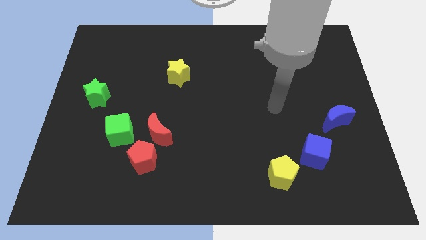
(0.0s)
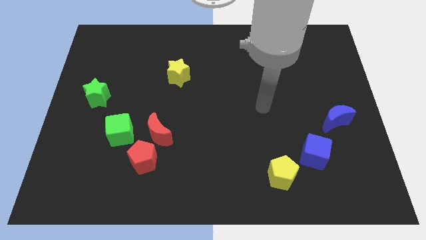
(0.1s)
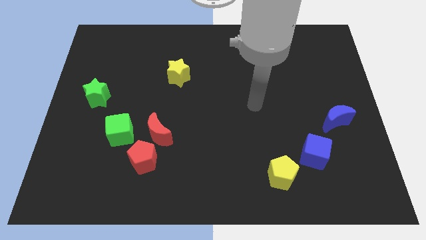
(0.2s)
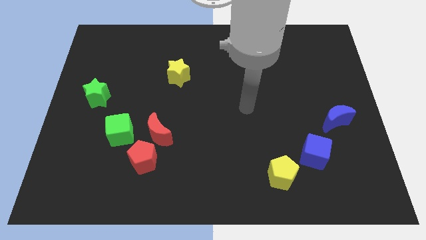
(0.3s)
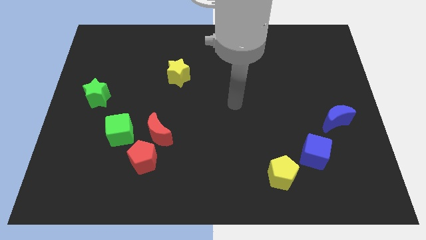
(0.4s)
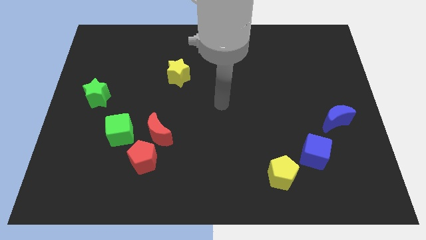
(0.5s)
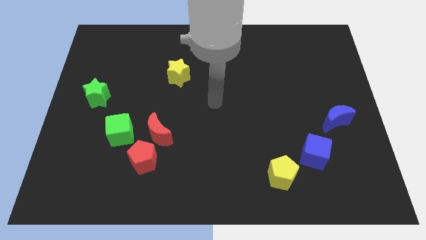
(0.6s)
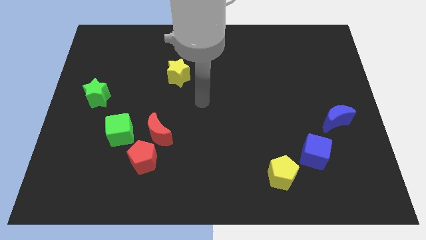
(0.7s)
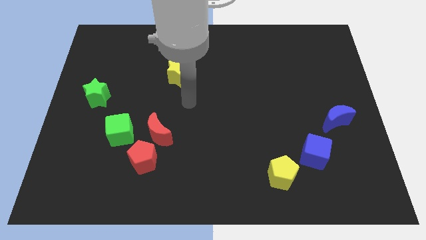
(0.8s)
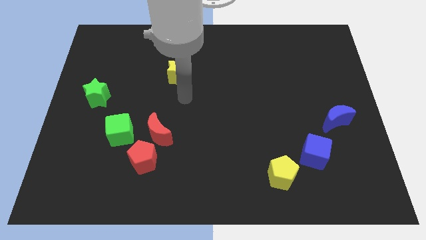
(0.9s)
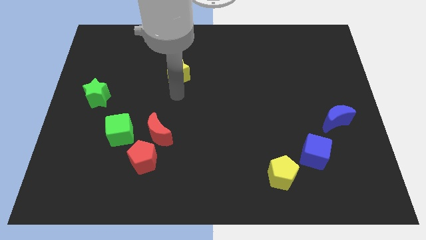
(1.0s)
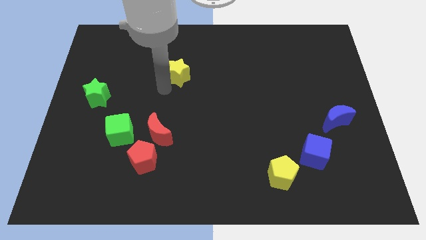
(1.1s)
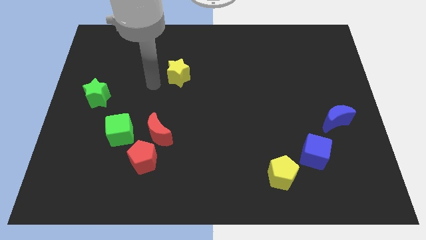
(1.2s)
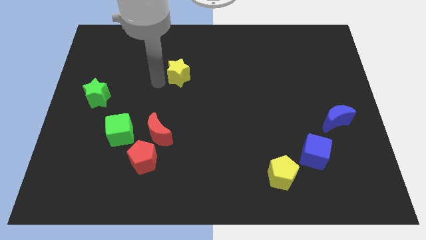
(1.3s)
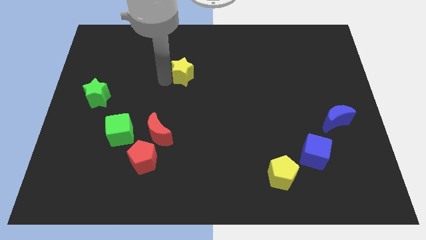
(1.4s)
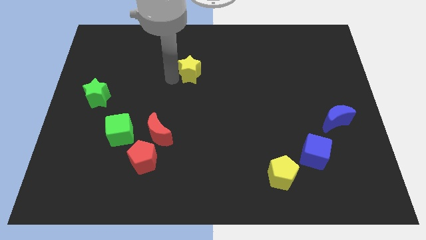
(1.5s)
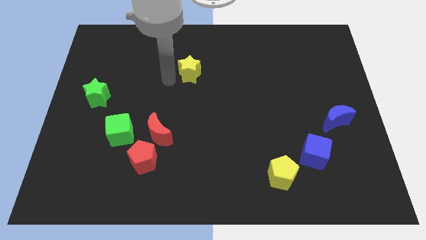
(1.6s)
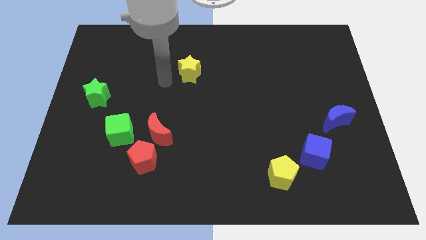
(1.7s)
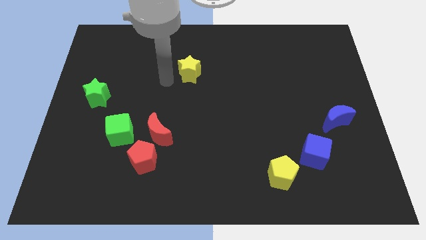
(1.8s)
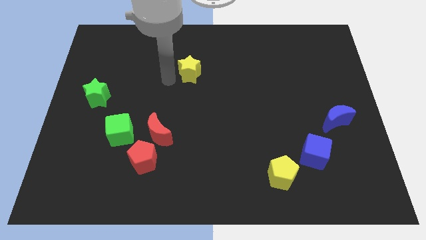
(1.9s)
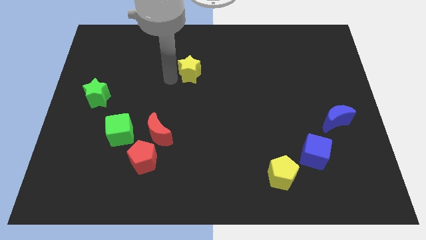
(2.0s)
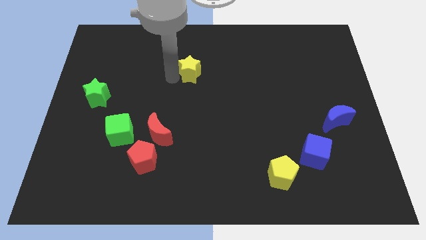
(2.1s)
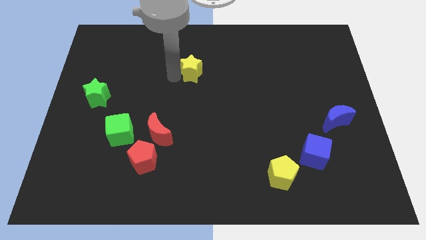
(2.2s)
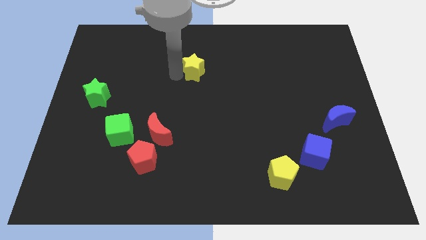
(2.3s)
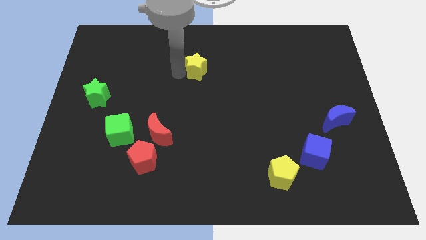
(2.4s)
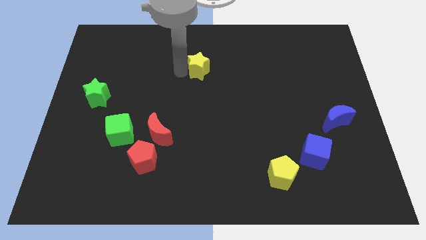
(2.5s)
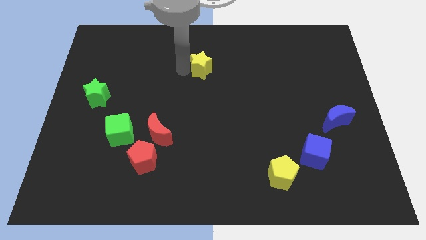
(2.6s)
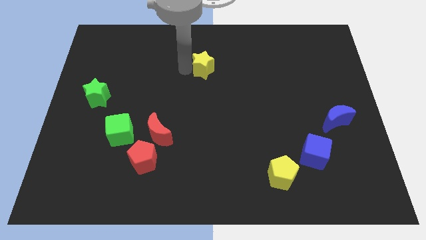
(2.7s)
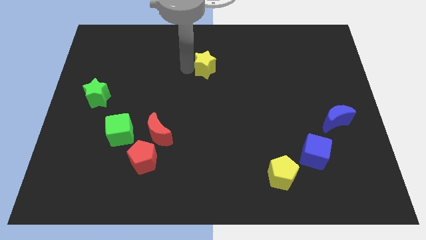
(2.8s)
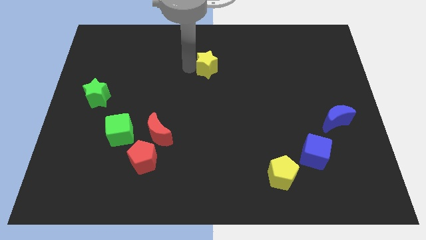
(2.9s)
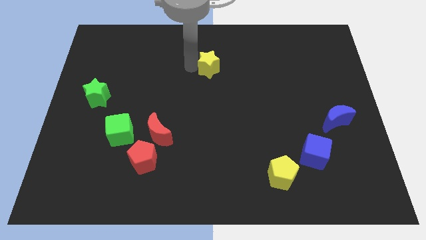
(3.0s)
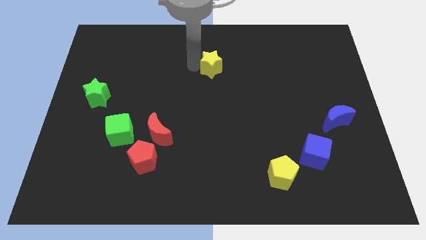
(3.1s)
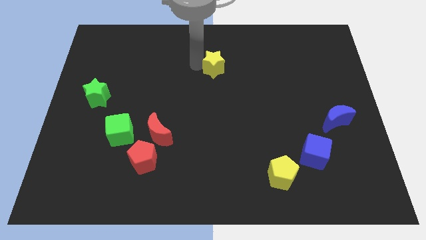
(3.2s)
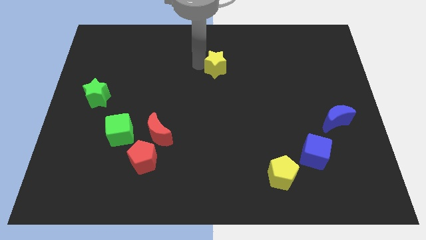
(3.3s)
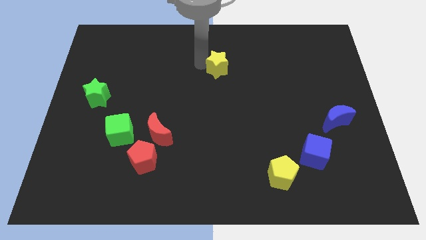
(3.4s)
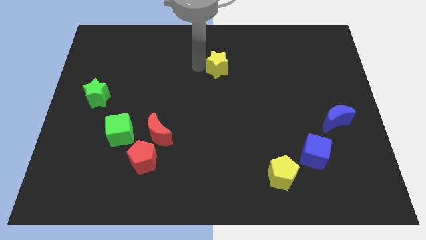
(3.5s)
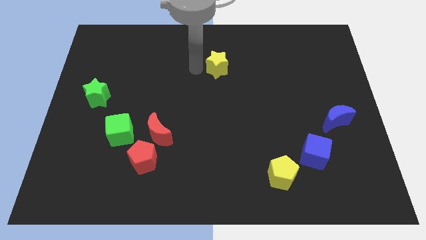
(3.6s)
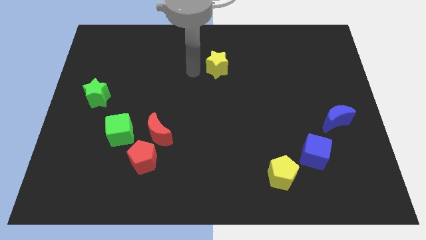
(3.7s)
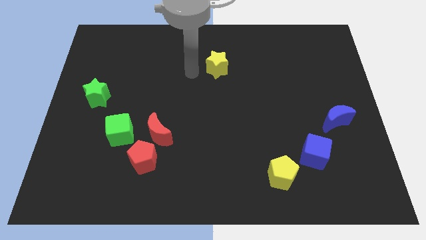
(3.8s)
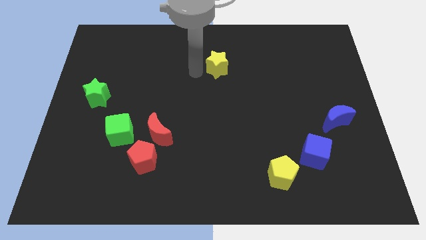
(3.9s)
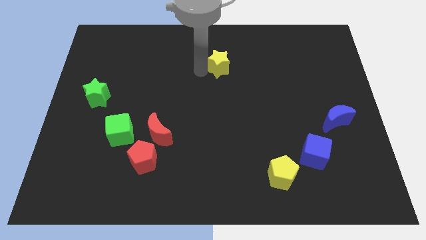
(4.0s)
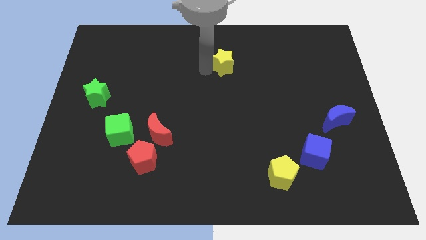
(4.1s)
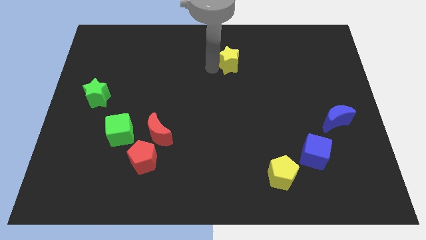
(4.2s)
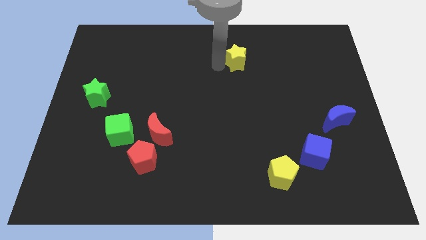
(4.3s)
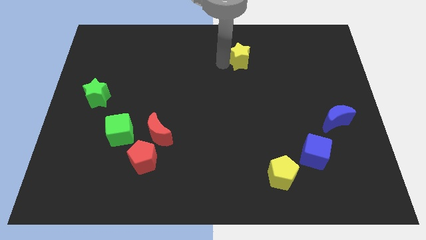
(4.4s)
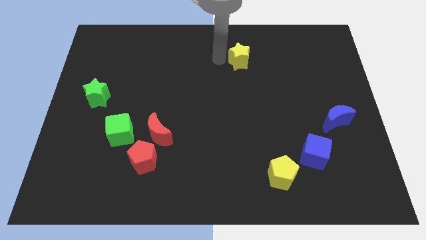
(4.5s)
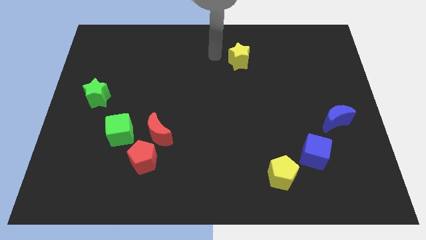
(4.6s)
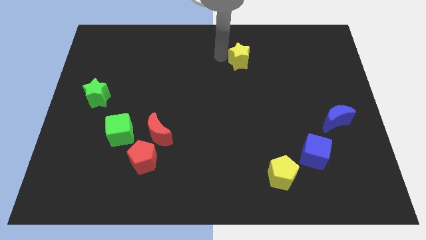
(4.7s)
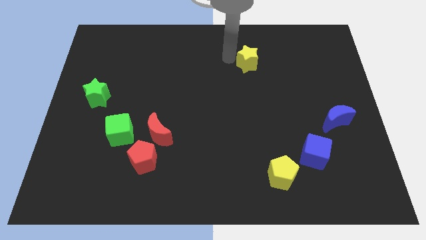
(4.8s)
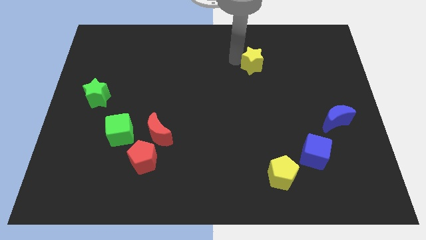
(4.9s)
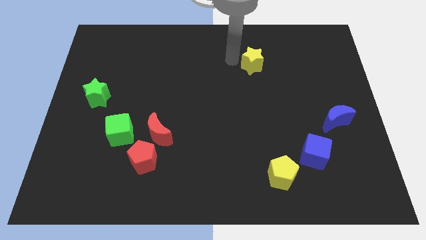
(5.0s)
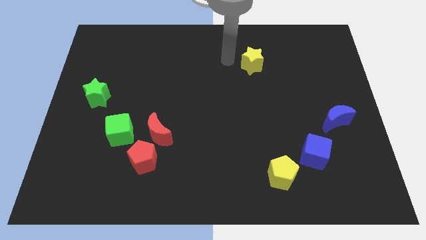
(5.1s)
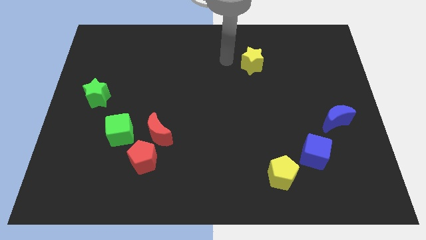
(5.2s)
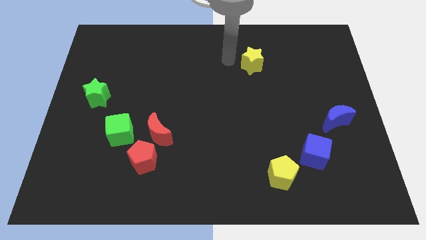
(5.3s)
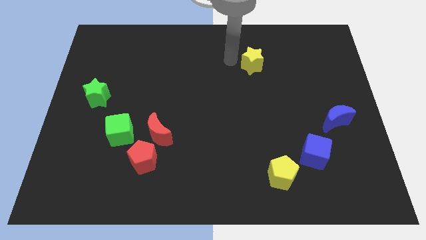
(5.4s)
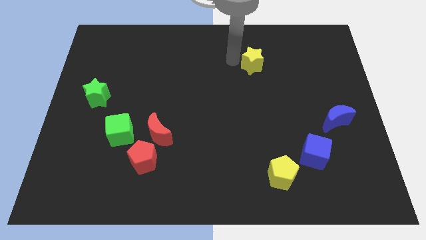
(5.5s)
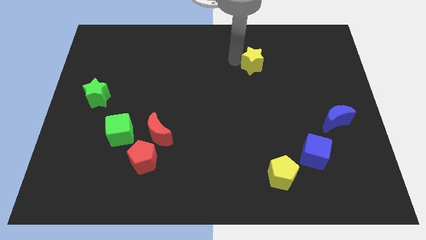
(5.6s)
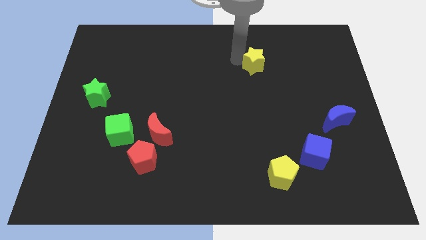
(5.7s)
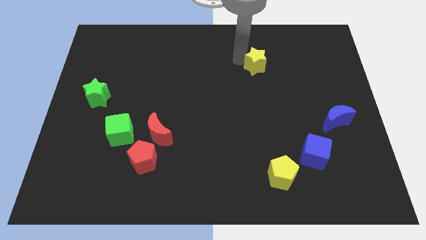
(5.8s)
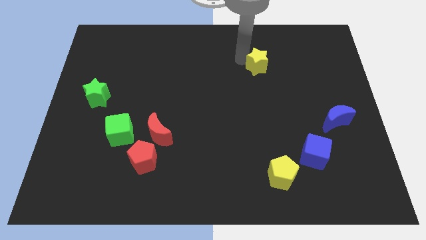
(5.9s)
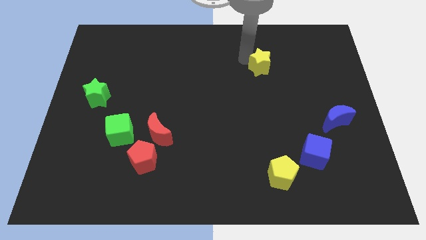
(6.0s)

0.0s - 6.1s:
move the yellow star to the right

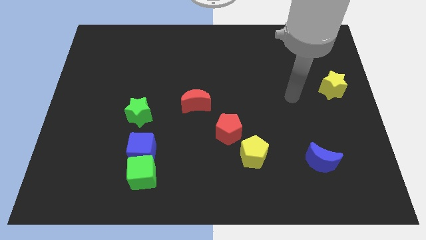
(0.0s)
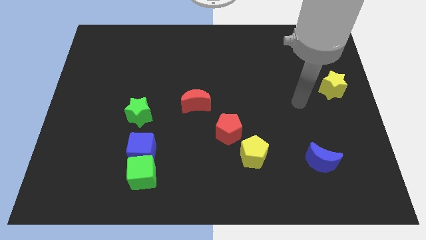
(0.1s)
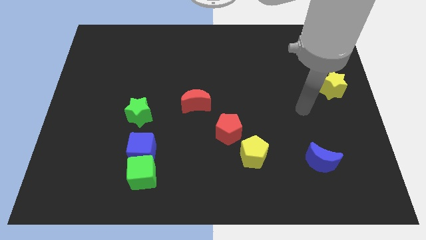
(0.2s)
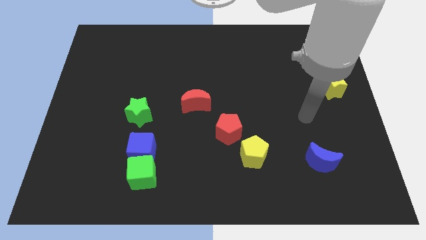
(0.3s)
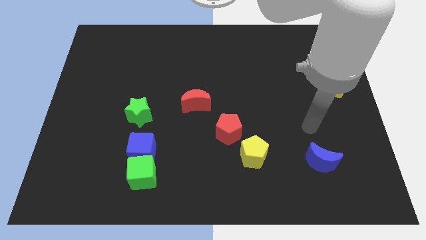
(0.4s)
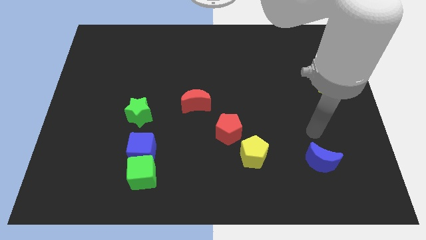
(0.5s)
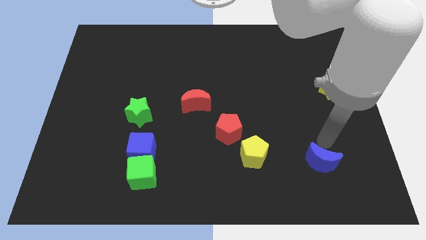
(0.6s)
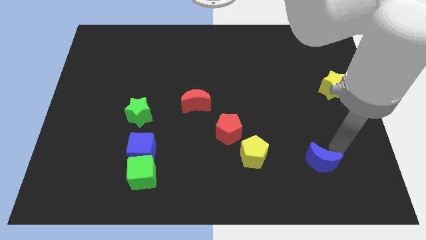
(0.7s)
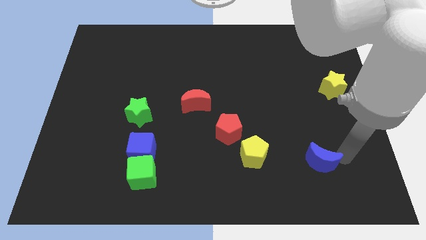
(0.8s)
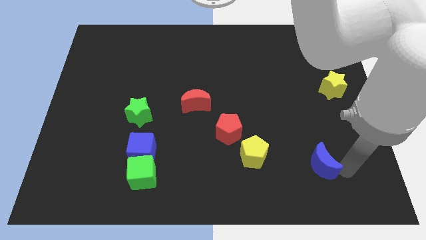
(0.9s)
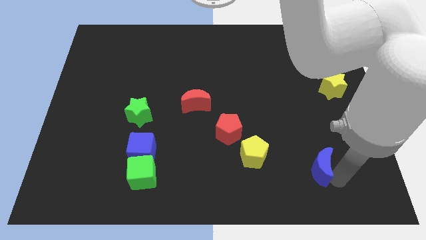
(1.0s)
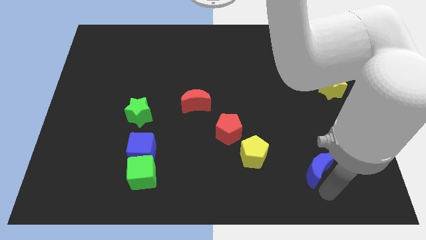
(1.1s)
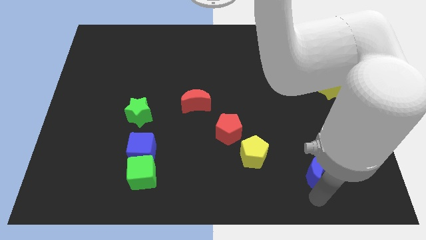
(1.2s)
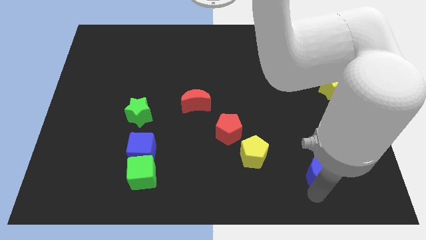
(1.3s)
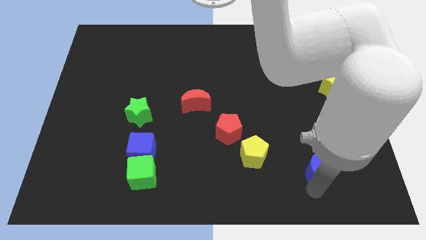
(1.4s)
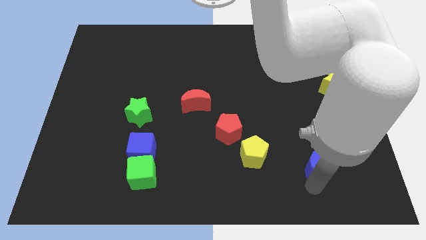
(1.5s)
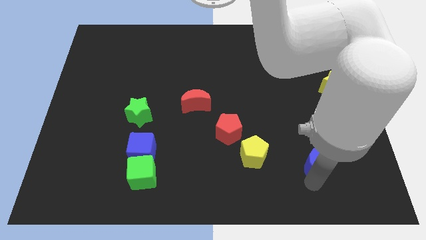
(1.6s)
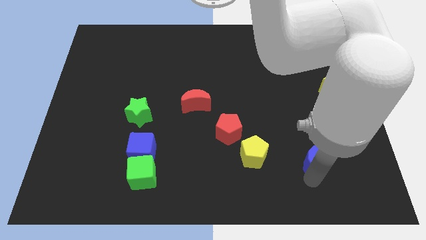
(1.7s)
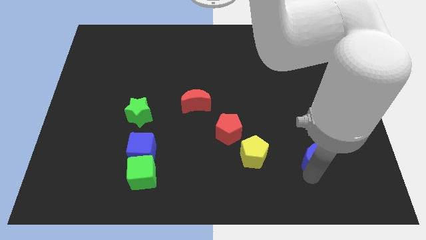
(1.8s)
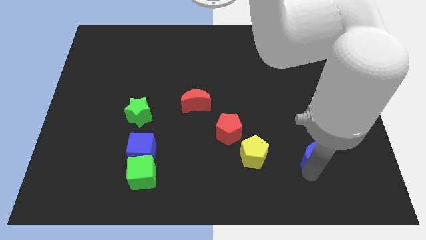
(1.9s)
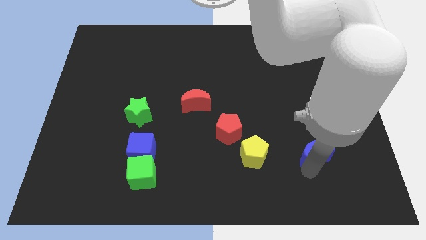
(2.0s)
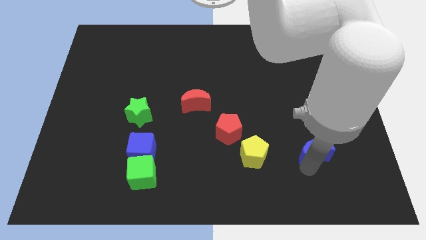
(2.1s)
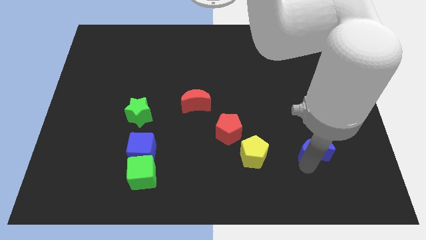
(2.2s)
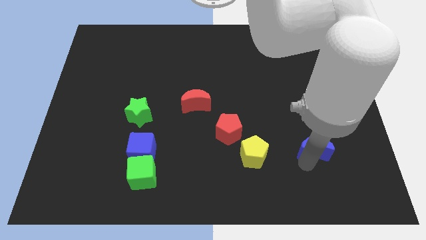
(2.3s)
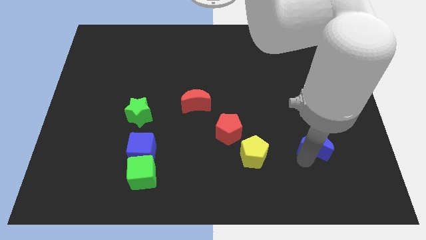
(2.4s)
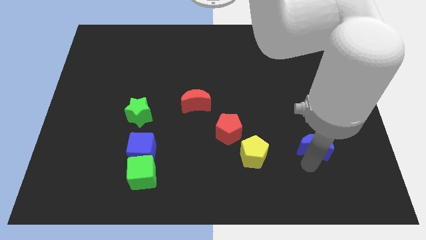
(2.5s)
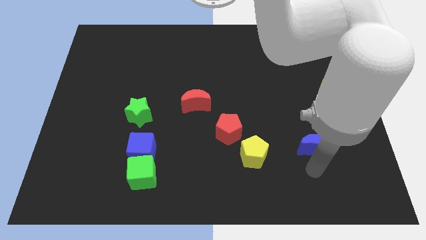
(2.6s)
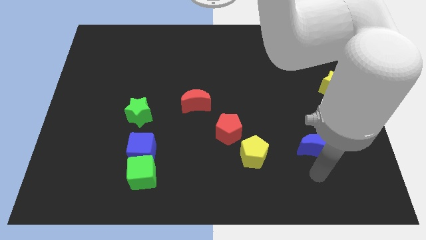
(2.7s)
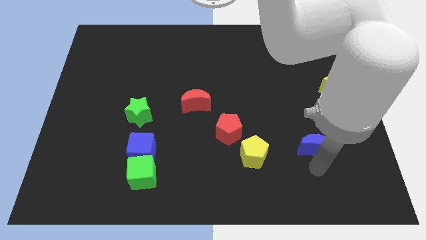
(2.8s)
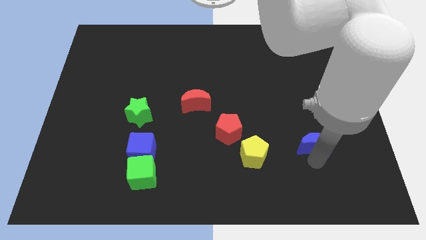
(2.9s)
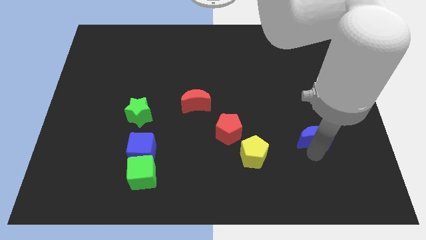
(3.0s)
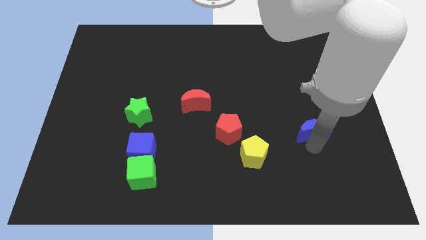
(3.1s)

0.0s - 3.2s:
slightly push the blue moon up
